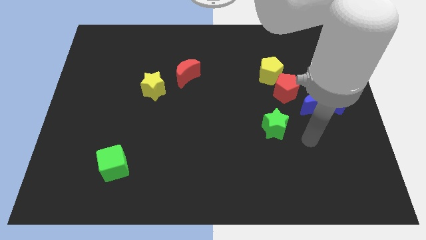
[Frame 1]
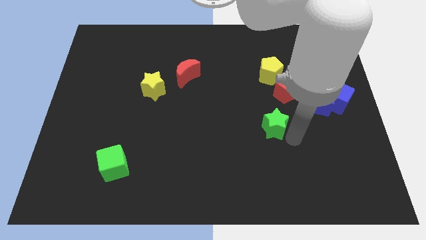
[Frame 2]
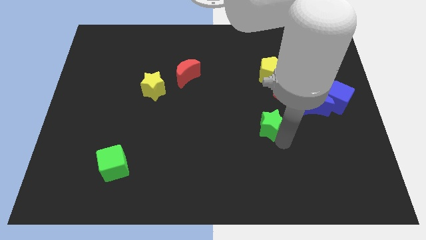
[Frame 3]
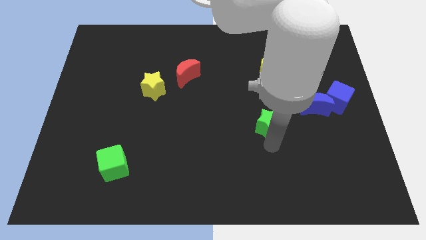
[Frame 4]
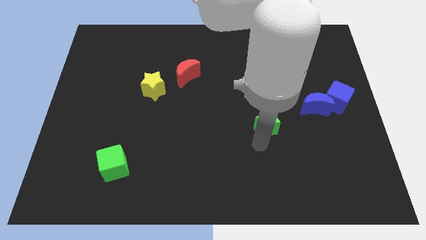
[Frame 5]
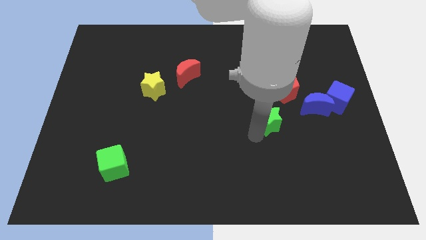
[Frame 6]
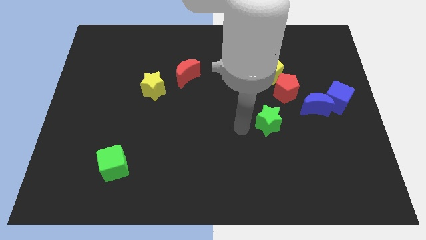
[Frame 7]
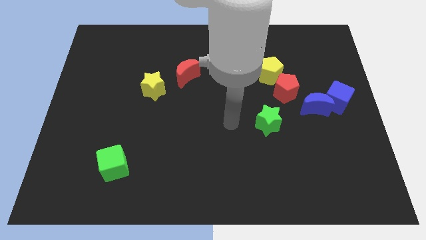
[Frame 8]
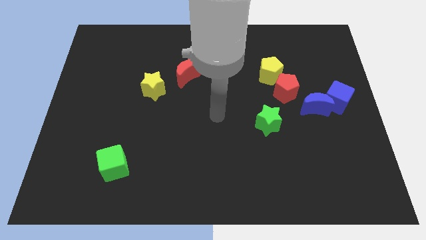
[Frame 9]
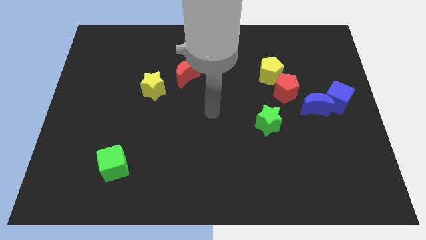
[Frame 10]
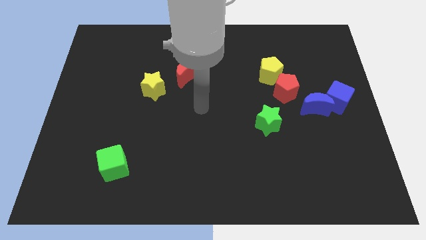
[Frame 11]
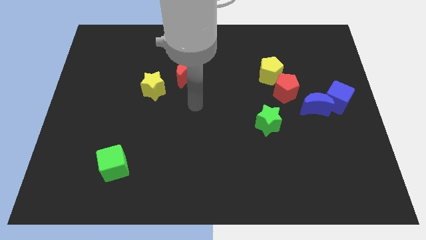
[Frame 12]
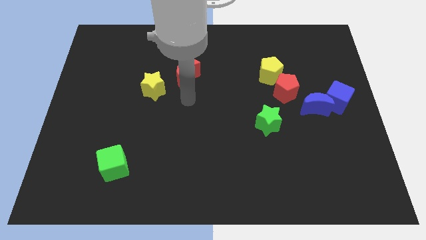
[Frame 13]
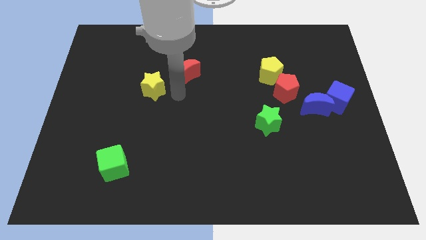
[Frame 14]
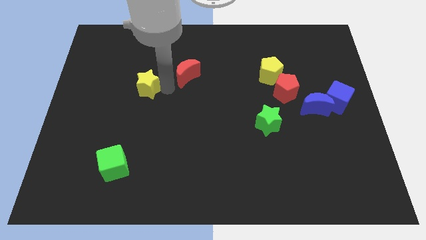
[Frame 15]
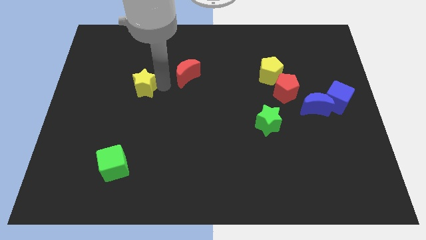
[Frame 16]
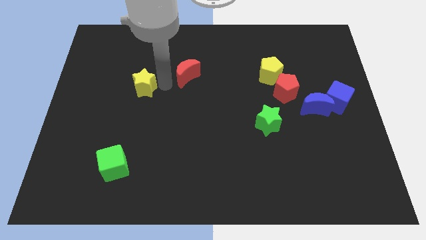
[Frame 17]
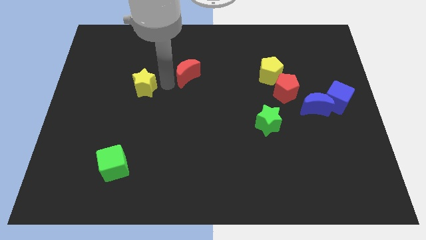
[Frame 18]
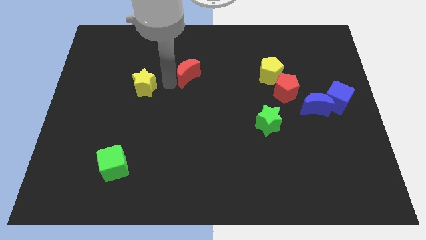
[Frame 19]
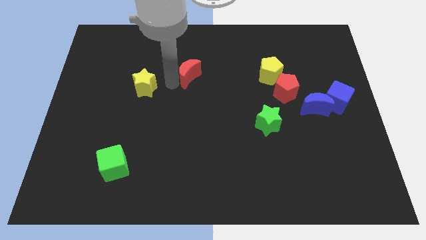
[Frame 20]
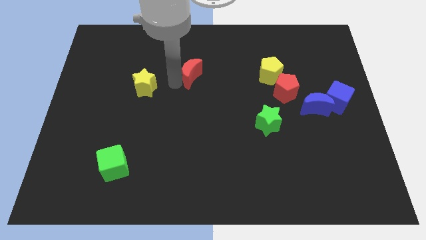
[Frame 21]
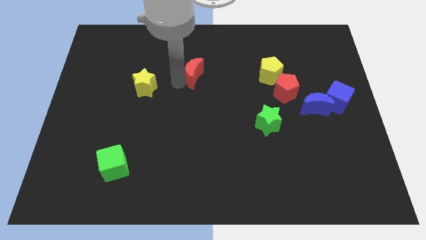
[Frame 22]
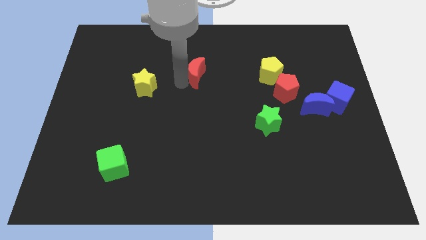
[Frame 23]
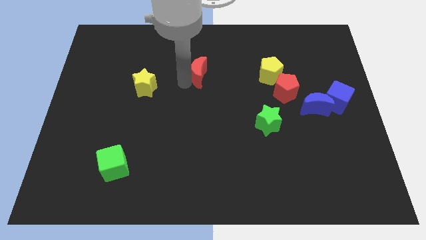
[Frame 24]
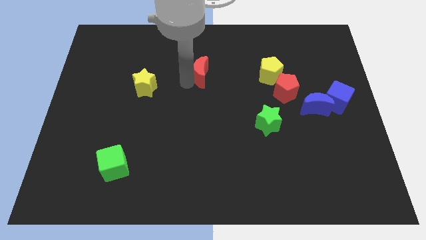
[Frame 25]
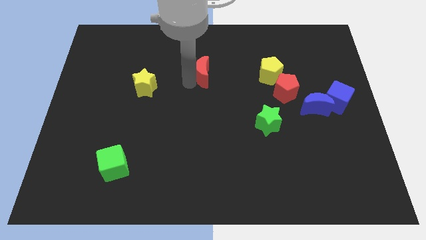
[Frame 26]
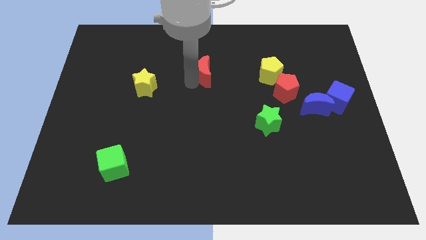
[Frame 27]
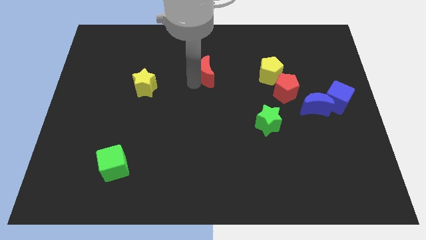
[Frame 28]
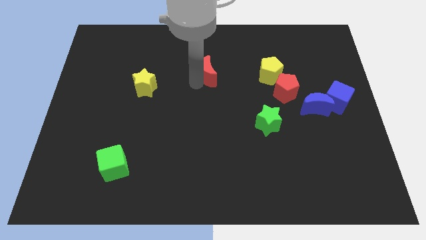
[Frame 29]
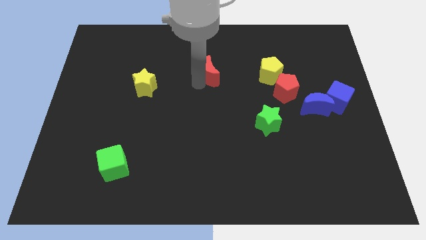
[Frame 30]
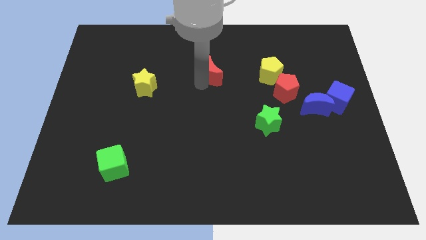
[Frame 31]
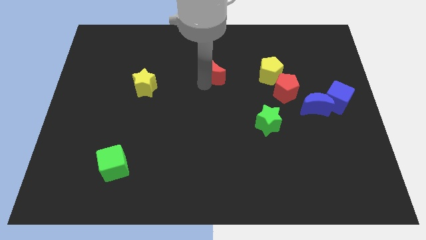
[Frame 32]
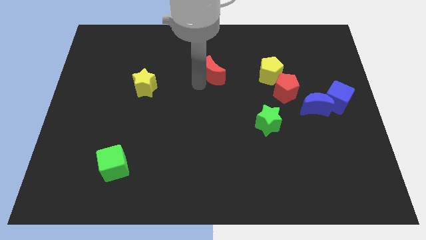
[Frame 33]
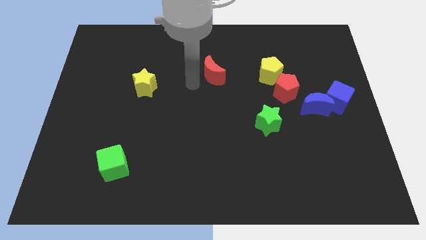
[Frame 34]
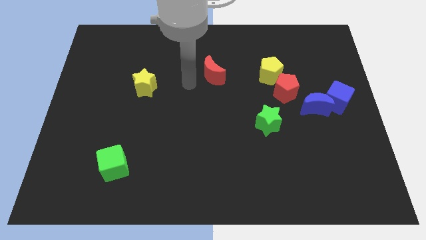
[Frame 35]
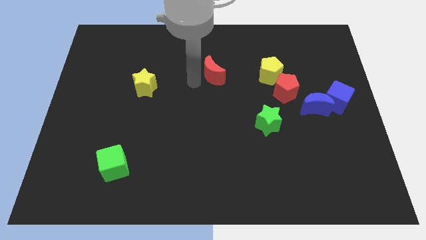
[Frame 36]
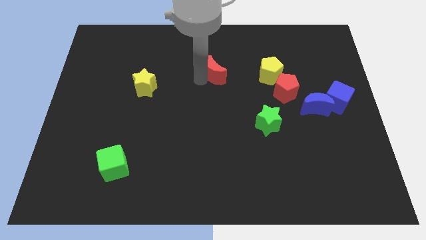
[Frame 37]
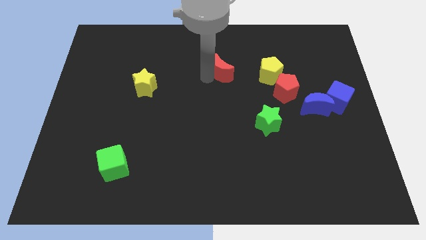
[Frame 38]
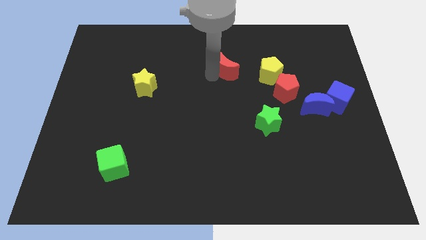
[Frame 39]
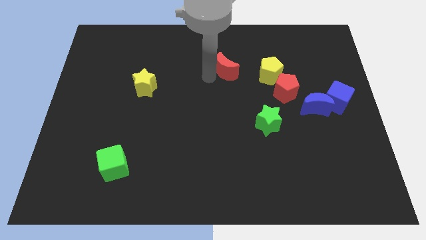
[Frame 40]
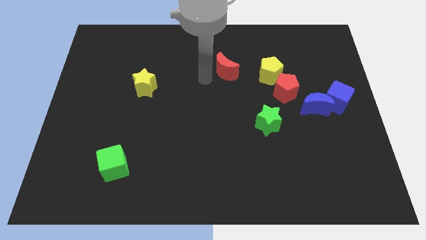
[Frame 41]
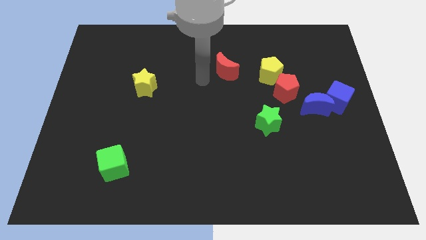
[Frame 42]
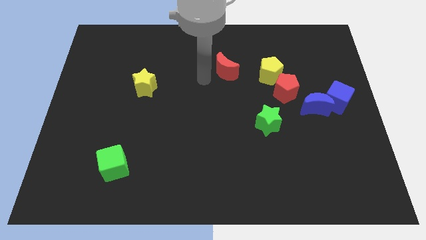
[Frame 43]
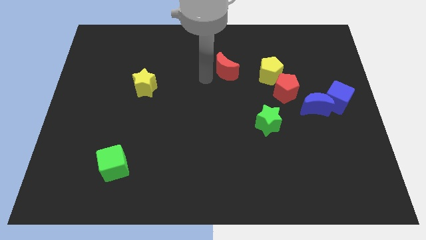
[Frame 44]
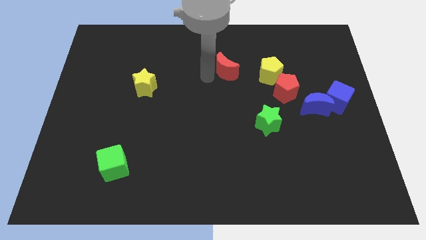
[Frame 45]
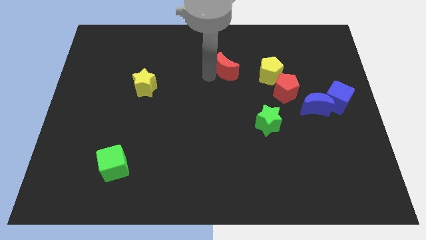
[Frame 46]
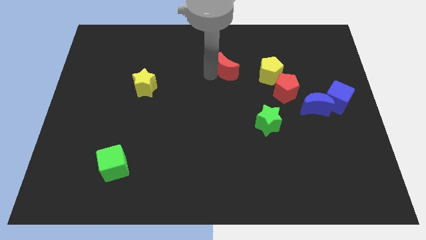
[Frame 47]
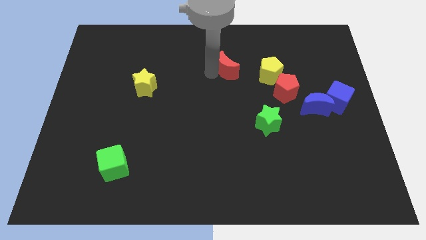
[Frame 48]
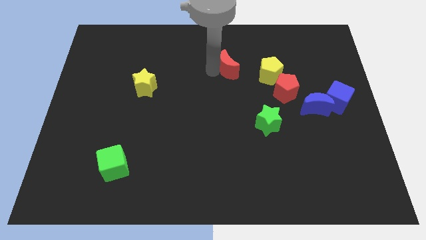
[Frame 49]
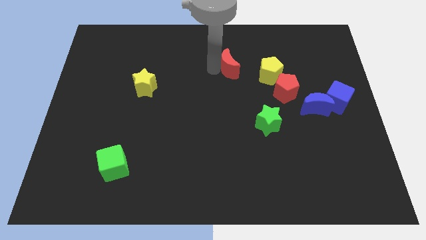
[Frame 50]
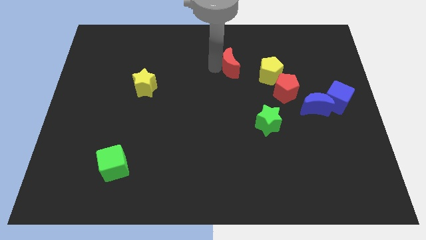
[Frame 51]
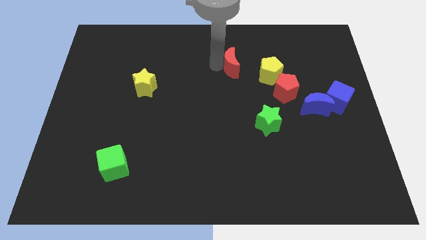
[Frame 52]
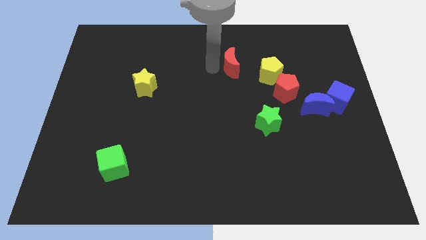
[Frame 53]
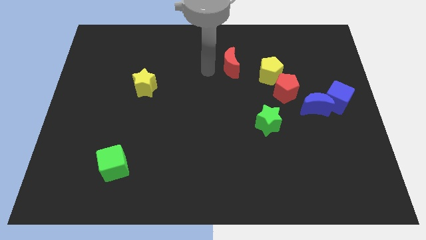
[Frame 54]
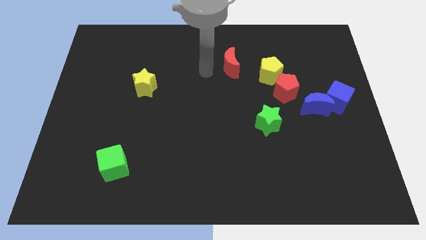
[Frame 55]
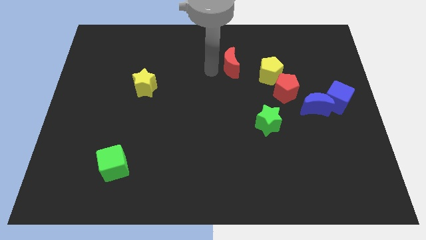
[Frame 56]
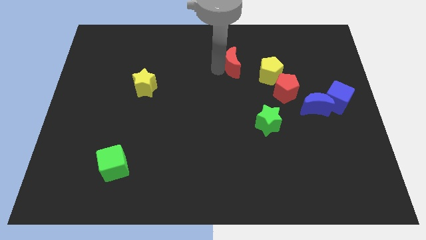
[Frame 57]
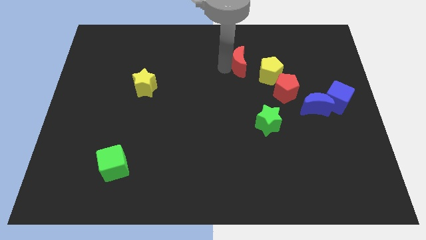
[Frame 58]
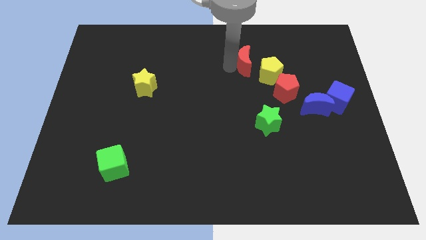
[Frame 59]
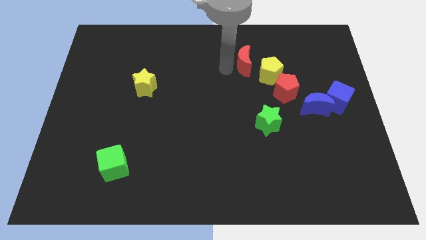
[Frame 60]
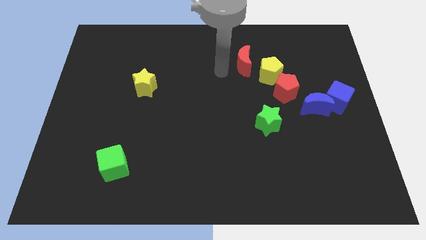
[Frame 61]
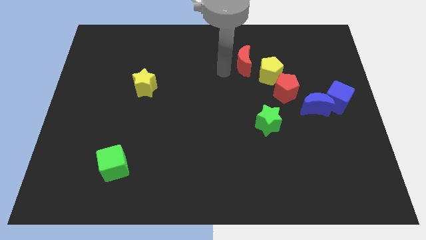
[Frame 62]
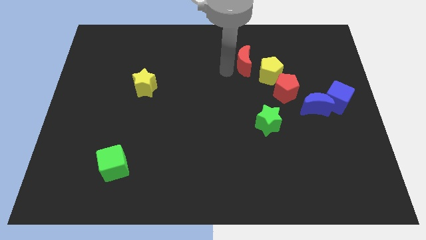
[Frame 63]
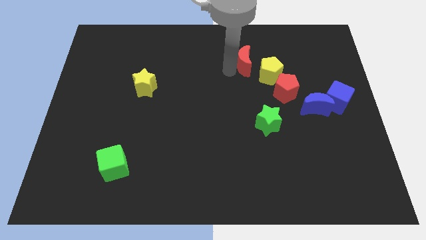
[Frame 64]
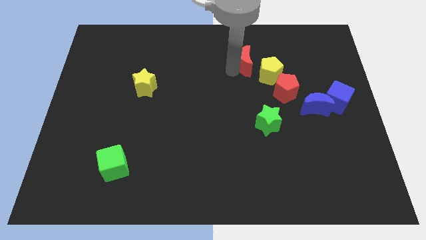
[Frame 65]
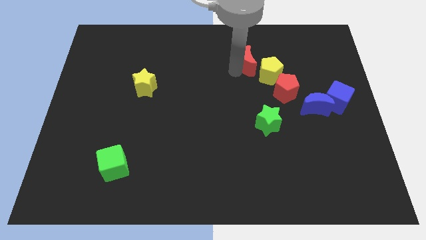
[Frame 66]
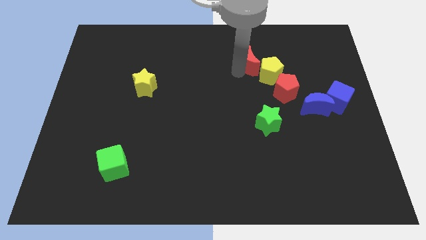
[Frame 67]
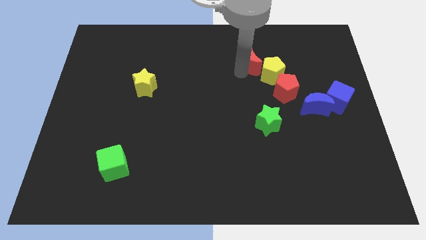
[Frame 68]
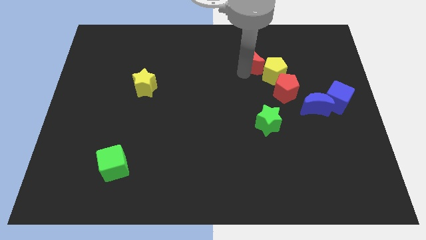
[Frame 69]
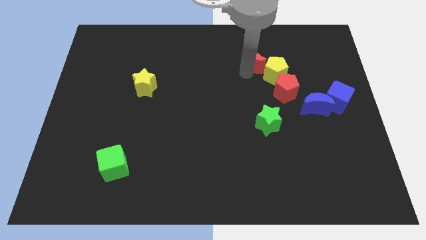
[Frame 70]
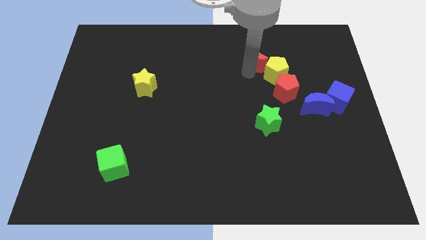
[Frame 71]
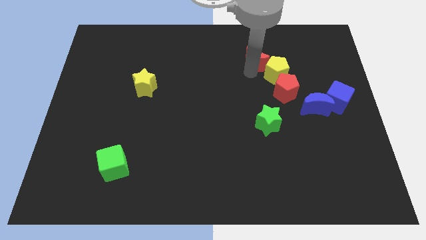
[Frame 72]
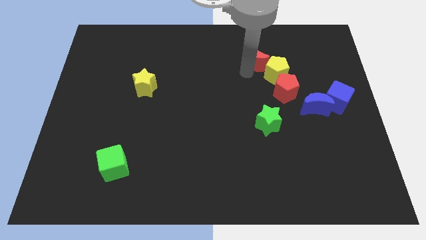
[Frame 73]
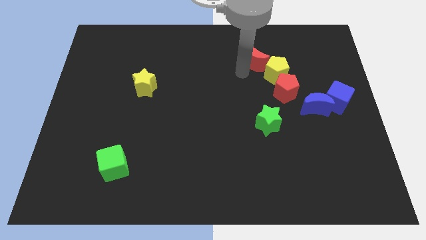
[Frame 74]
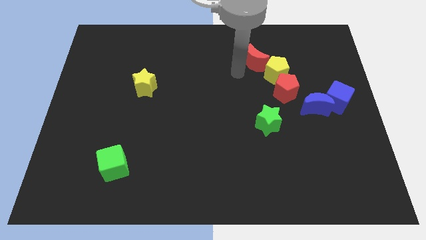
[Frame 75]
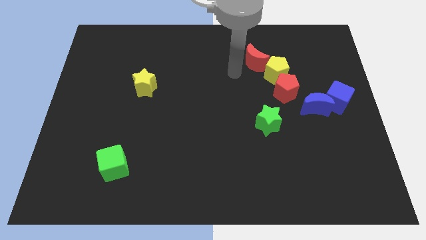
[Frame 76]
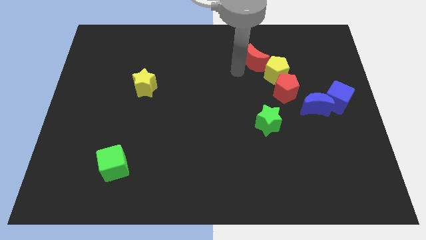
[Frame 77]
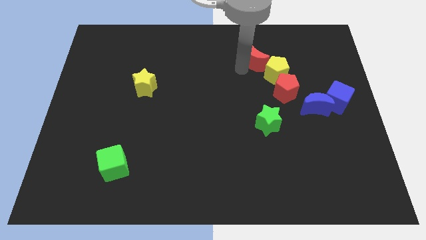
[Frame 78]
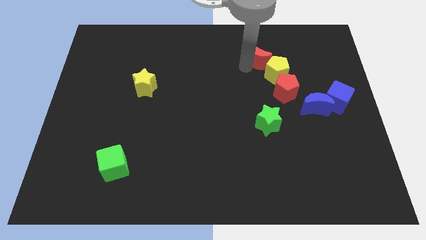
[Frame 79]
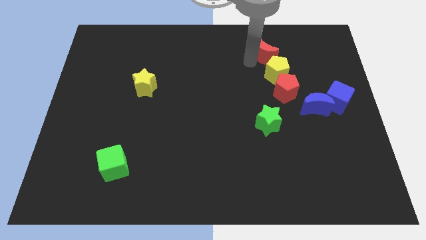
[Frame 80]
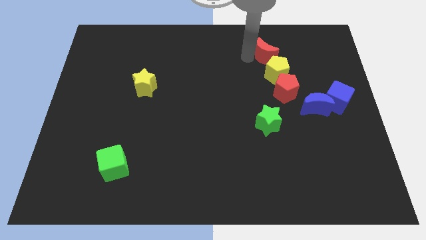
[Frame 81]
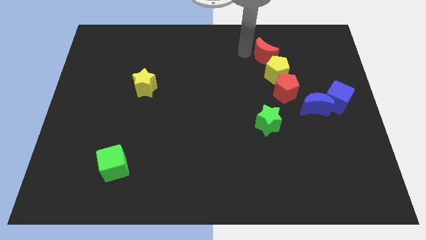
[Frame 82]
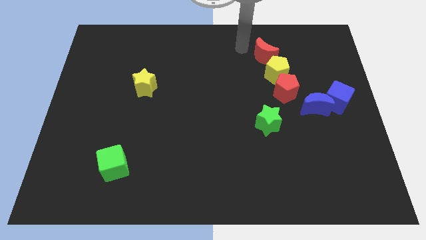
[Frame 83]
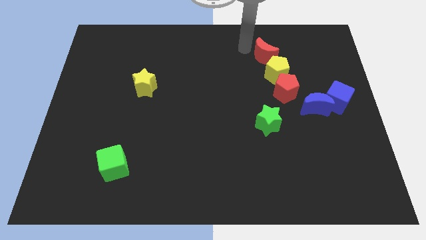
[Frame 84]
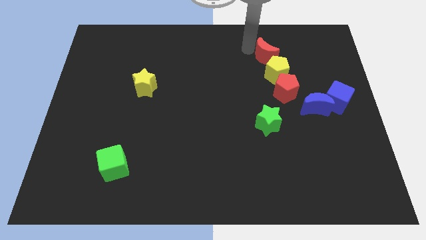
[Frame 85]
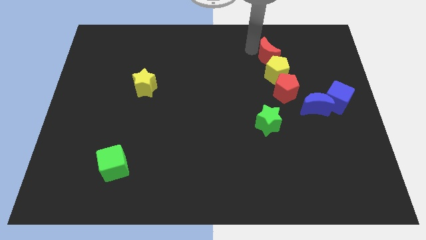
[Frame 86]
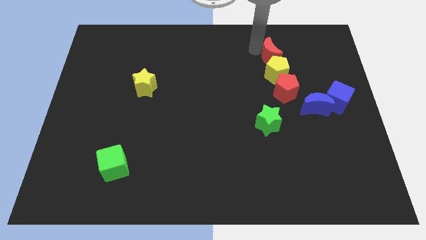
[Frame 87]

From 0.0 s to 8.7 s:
move the red moon to the right
